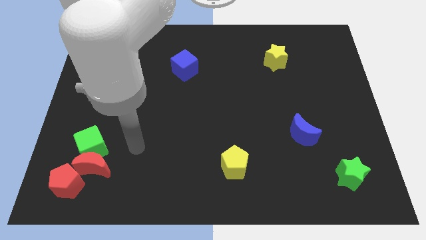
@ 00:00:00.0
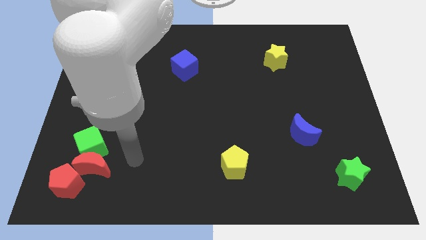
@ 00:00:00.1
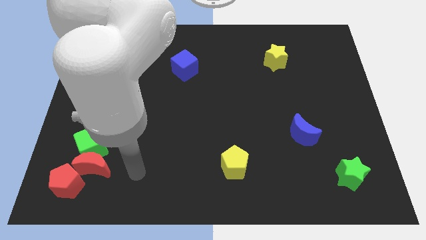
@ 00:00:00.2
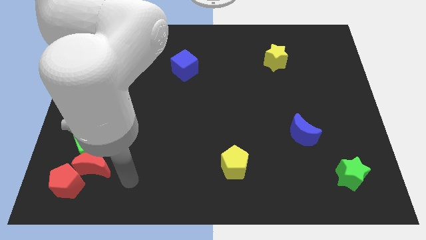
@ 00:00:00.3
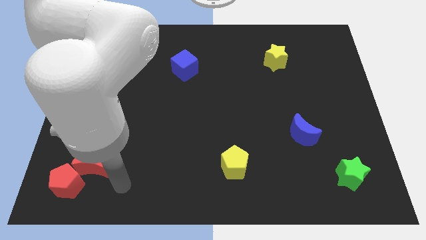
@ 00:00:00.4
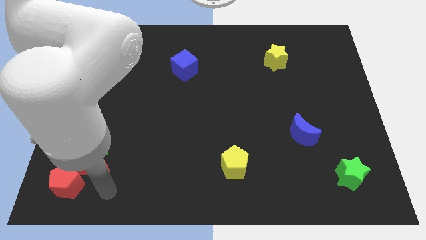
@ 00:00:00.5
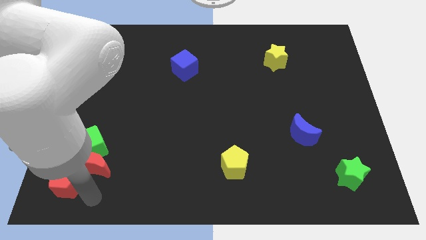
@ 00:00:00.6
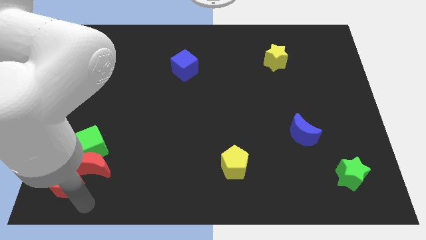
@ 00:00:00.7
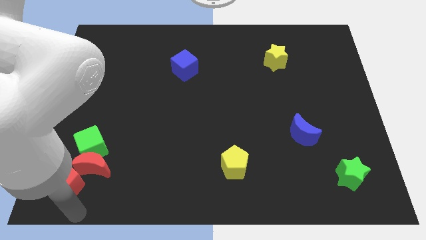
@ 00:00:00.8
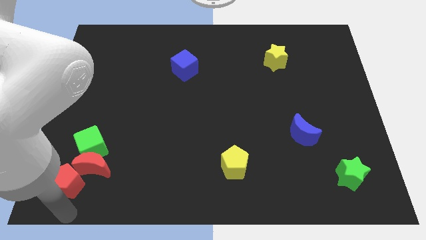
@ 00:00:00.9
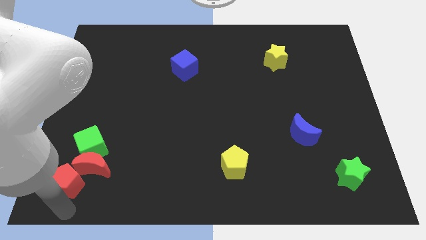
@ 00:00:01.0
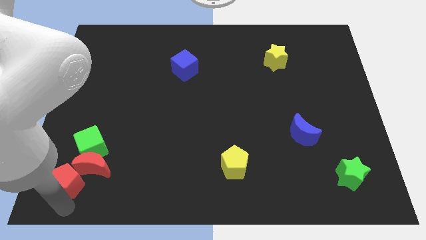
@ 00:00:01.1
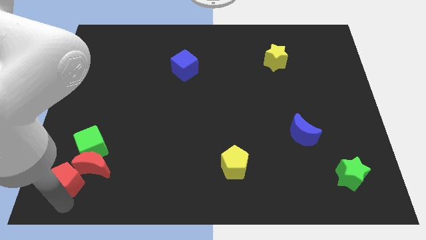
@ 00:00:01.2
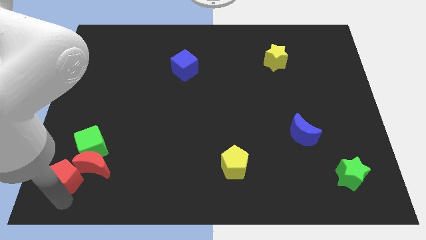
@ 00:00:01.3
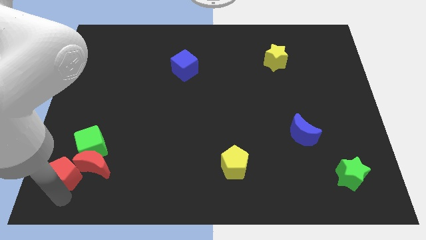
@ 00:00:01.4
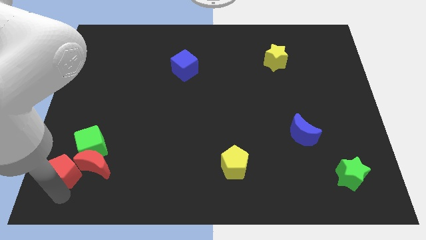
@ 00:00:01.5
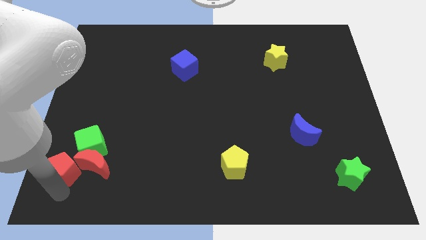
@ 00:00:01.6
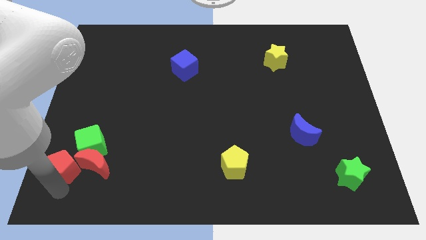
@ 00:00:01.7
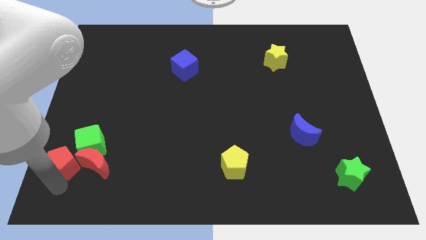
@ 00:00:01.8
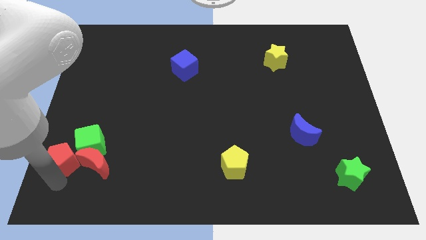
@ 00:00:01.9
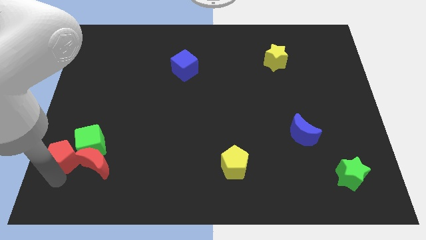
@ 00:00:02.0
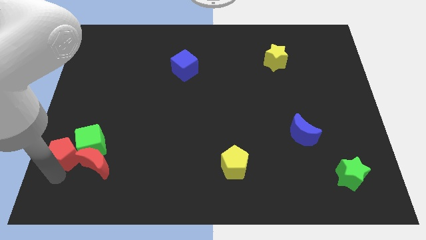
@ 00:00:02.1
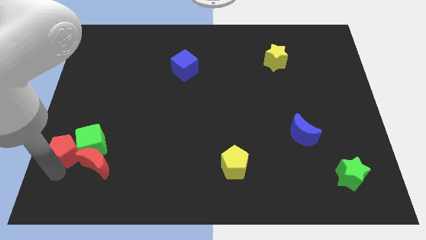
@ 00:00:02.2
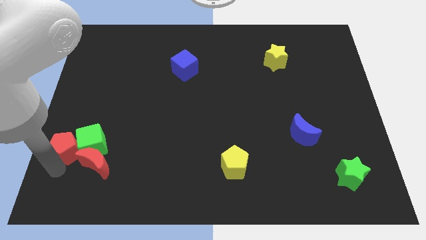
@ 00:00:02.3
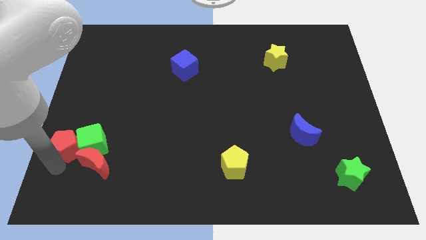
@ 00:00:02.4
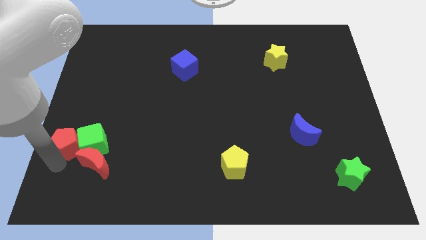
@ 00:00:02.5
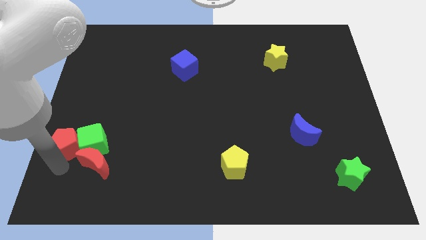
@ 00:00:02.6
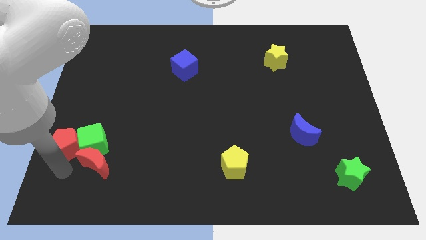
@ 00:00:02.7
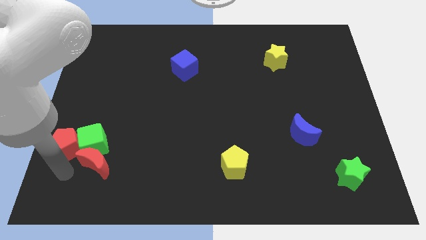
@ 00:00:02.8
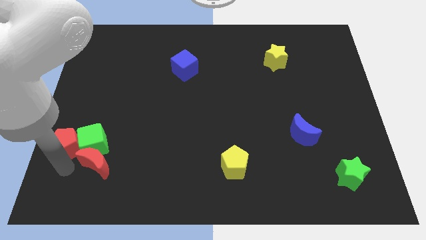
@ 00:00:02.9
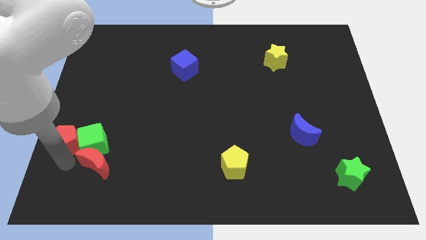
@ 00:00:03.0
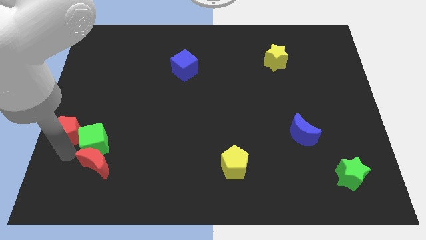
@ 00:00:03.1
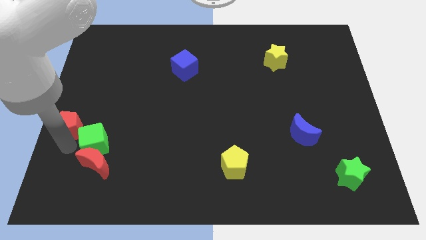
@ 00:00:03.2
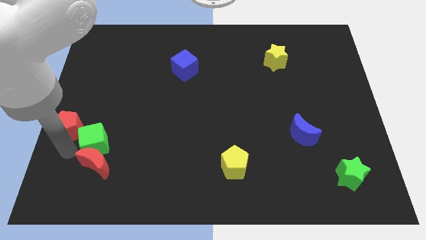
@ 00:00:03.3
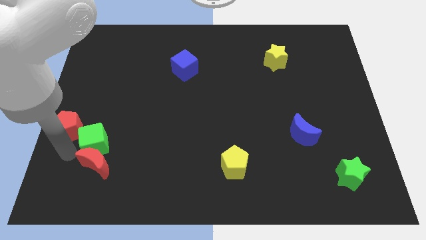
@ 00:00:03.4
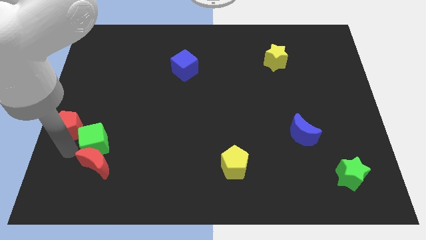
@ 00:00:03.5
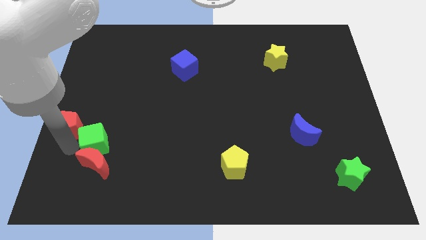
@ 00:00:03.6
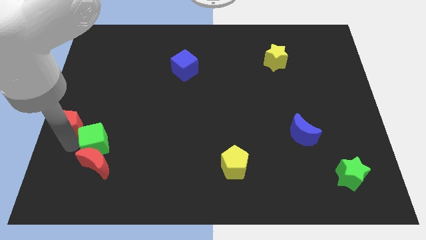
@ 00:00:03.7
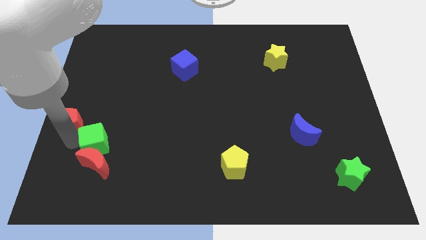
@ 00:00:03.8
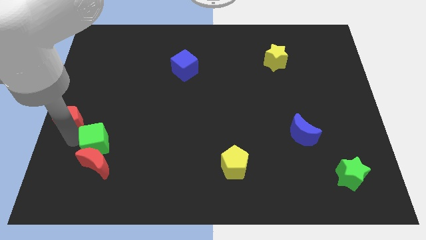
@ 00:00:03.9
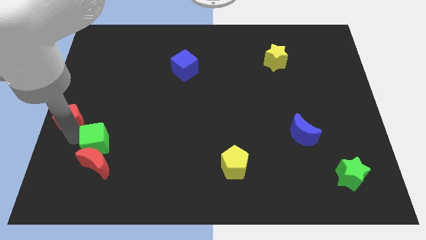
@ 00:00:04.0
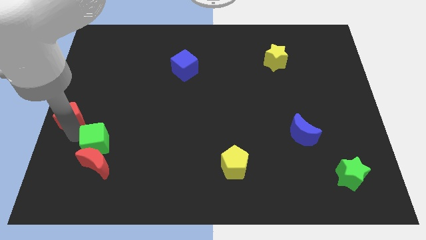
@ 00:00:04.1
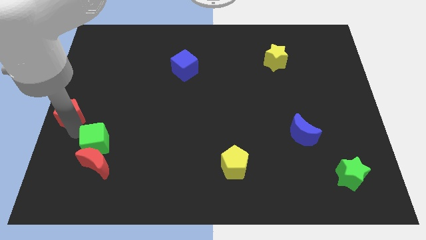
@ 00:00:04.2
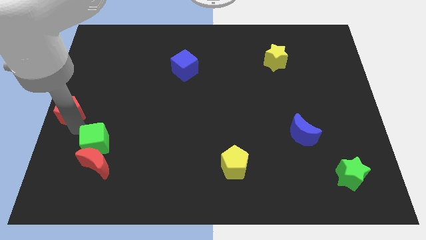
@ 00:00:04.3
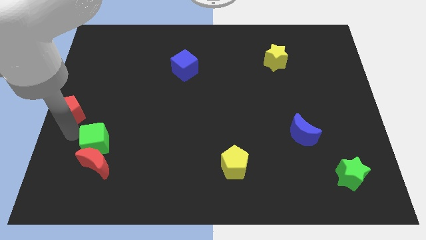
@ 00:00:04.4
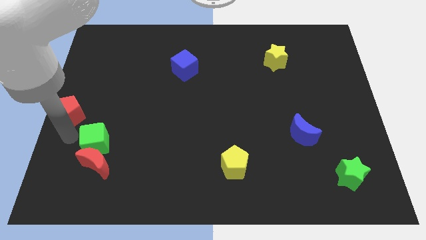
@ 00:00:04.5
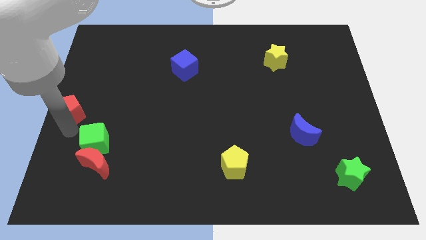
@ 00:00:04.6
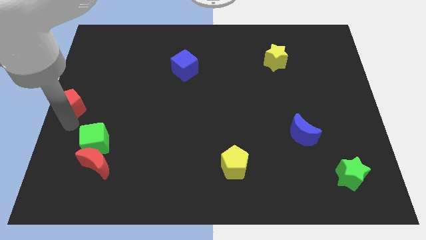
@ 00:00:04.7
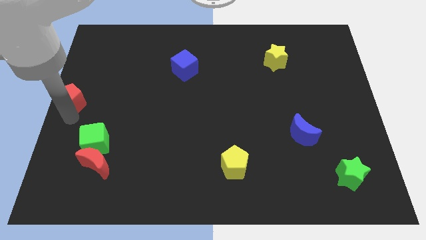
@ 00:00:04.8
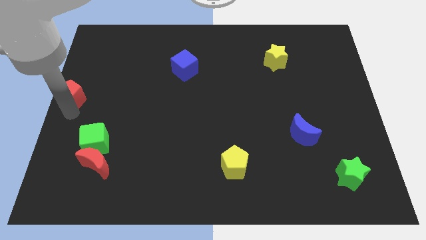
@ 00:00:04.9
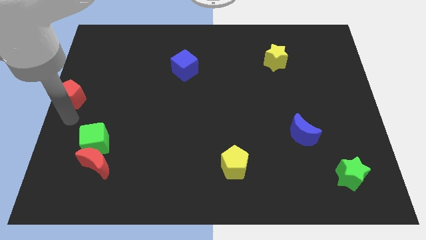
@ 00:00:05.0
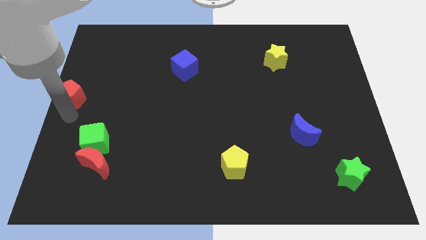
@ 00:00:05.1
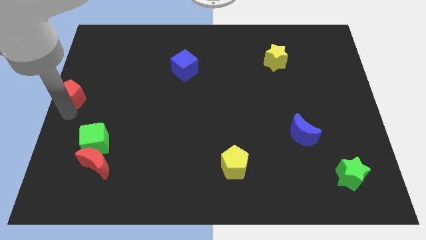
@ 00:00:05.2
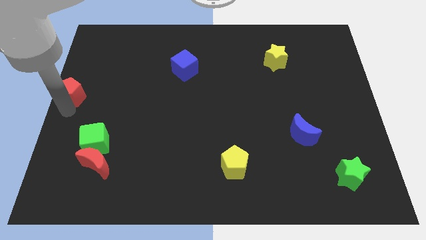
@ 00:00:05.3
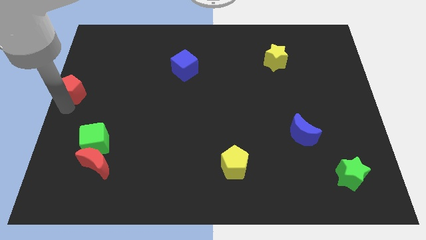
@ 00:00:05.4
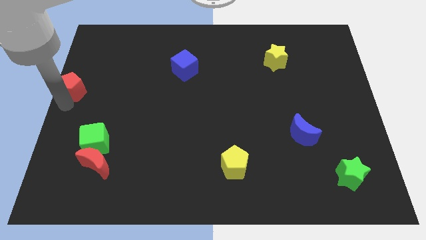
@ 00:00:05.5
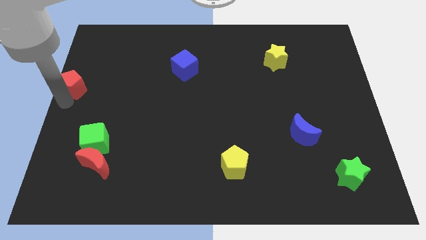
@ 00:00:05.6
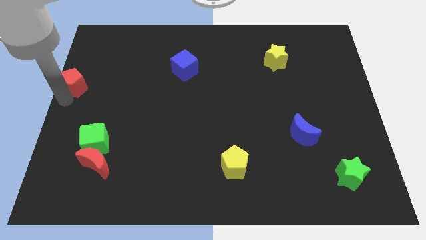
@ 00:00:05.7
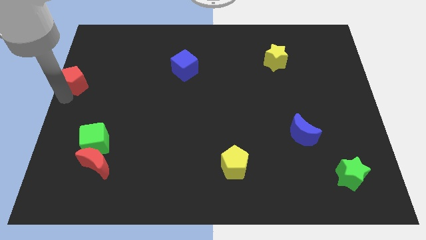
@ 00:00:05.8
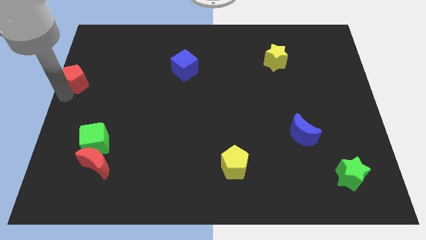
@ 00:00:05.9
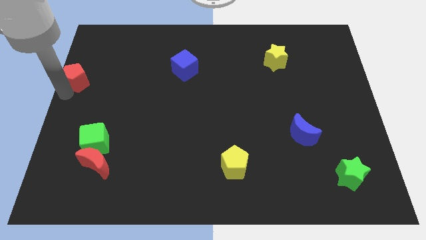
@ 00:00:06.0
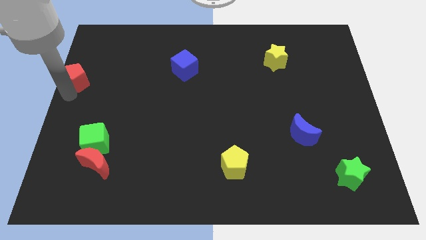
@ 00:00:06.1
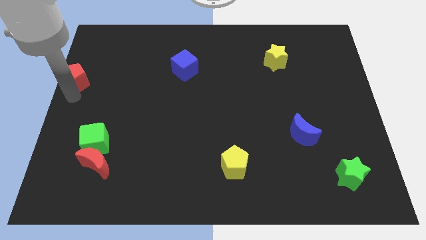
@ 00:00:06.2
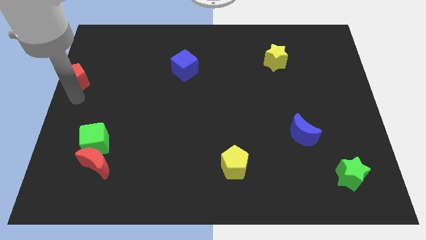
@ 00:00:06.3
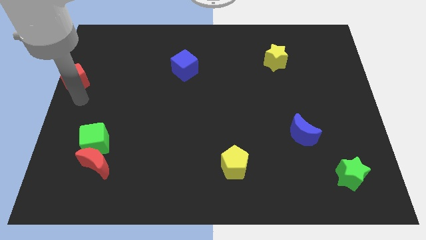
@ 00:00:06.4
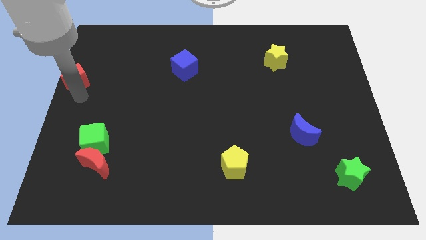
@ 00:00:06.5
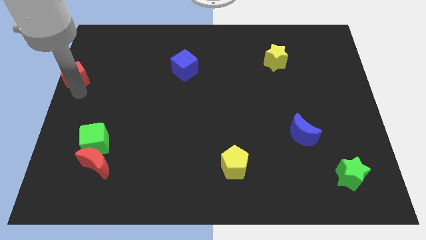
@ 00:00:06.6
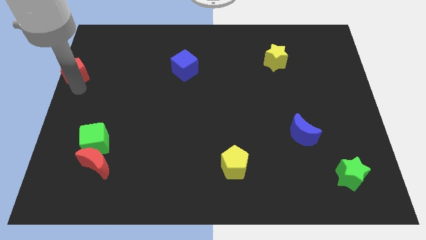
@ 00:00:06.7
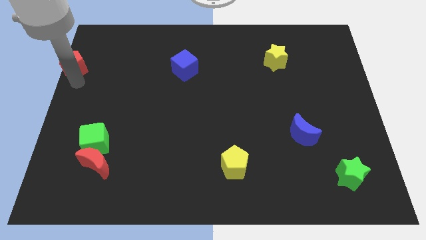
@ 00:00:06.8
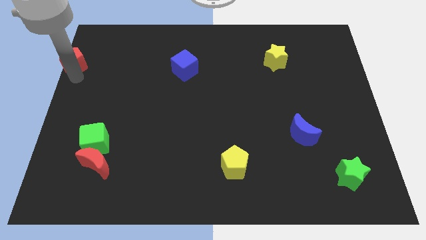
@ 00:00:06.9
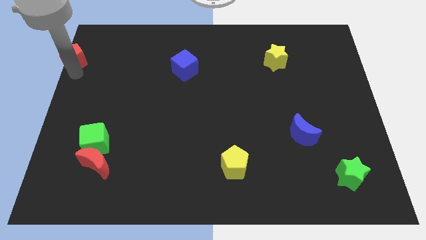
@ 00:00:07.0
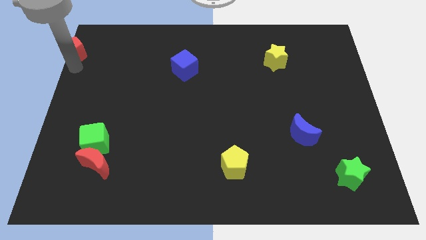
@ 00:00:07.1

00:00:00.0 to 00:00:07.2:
move the red pentagon to the top left of the board
